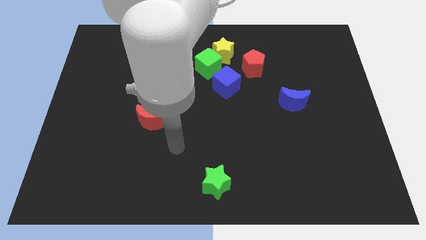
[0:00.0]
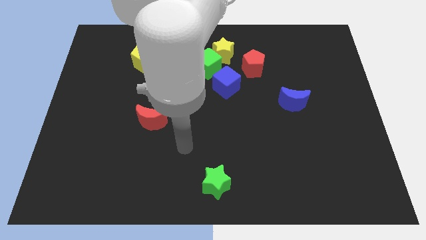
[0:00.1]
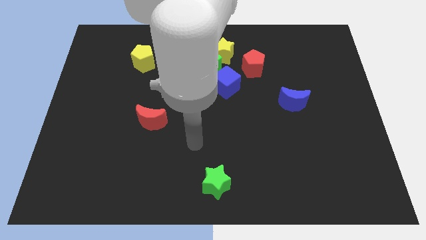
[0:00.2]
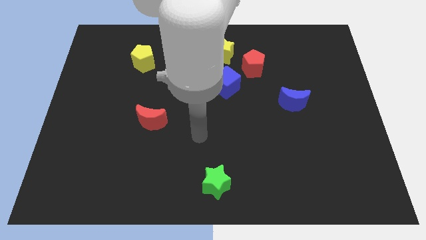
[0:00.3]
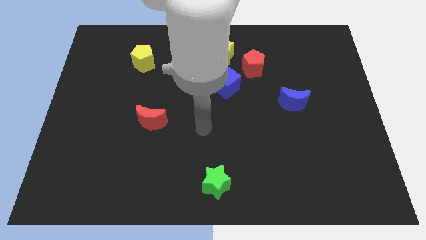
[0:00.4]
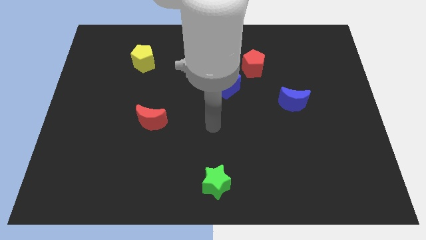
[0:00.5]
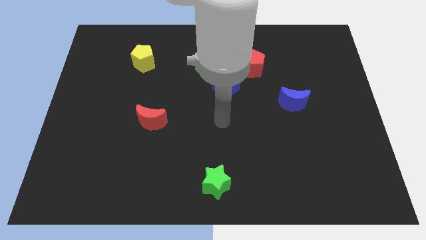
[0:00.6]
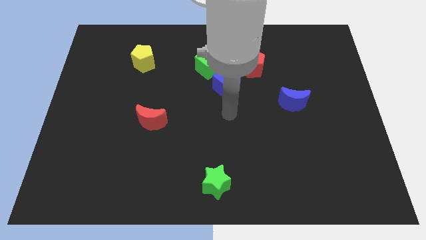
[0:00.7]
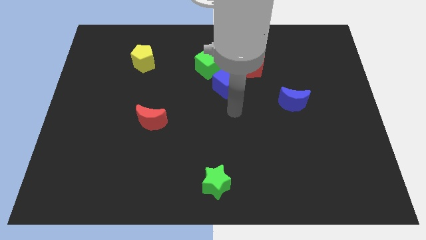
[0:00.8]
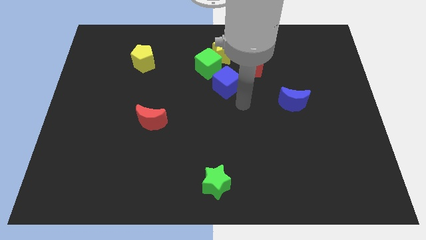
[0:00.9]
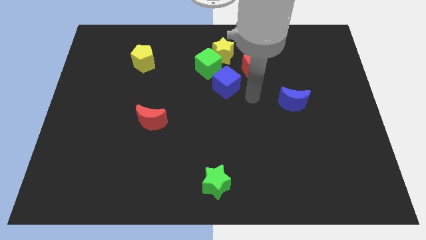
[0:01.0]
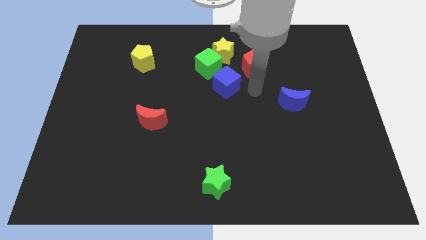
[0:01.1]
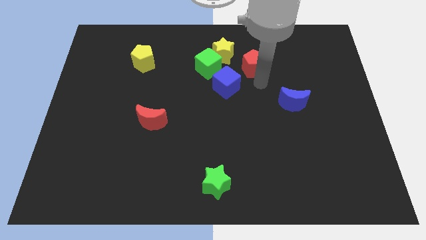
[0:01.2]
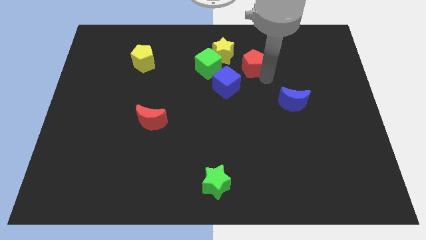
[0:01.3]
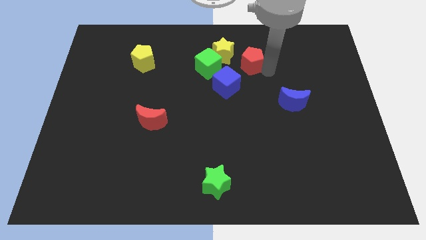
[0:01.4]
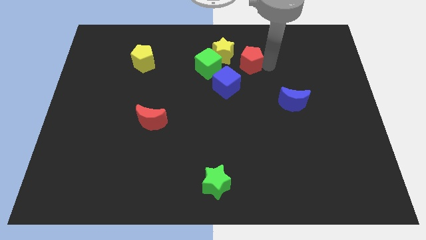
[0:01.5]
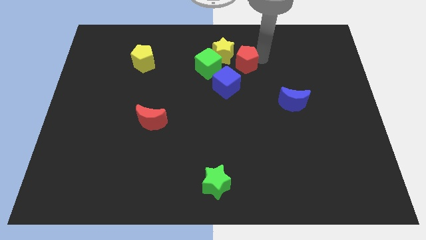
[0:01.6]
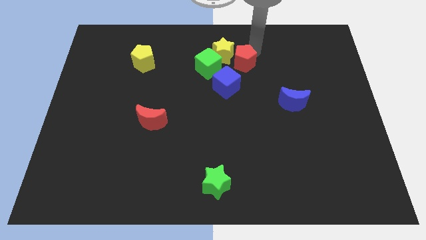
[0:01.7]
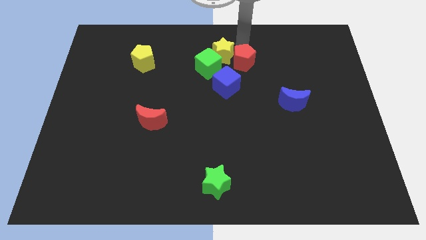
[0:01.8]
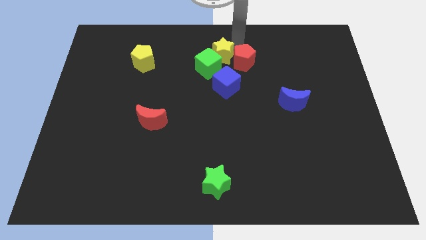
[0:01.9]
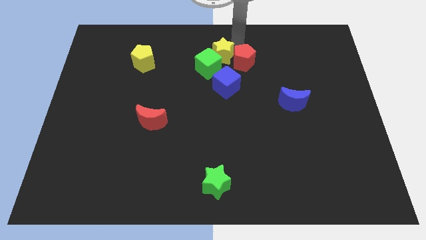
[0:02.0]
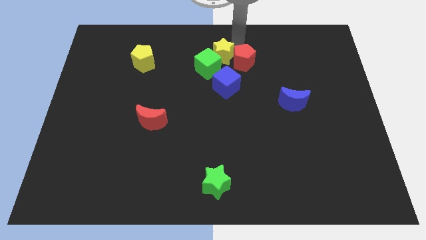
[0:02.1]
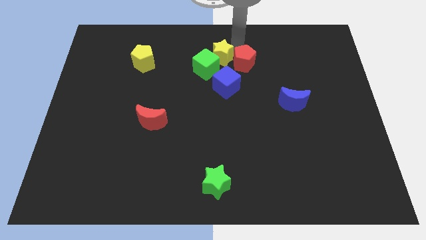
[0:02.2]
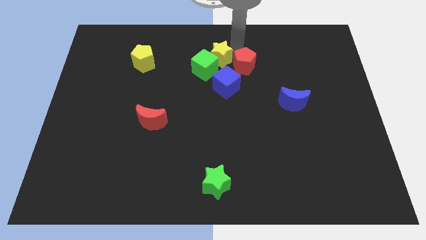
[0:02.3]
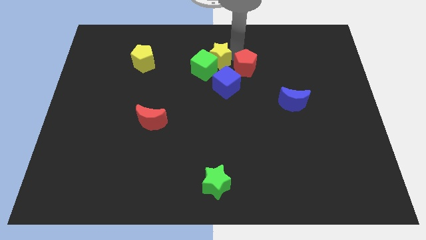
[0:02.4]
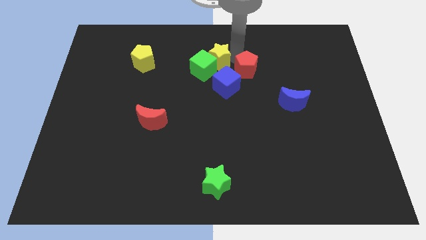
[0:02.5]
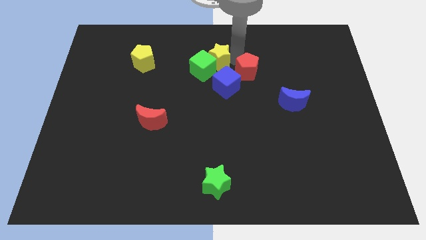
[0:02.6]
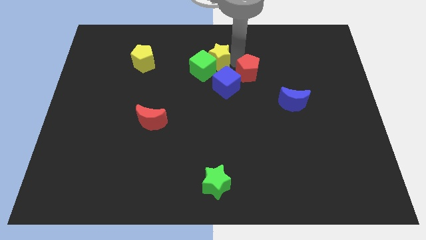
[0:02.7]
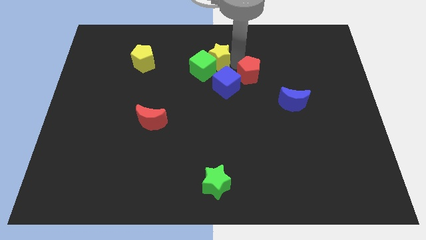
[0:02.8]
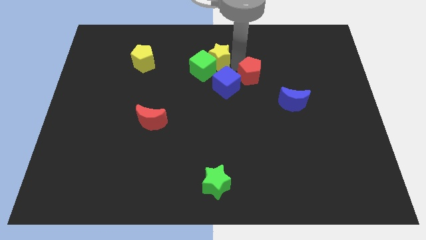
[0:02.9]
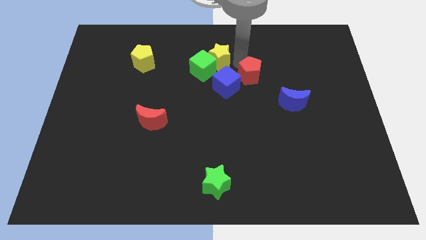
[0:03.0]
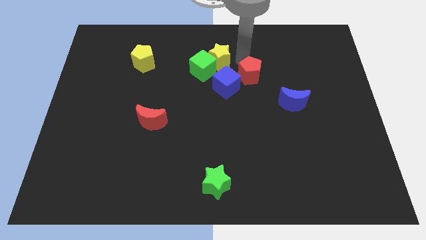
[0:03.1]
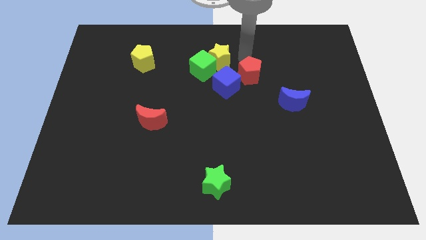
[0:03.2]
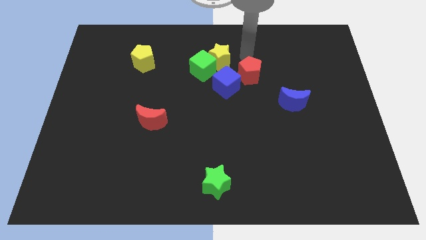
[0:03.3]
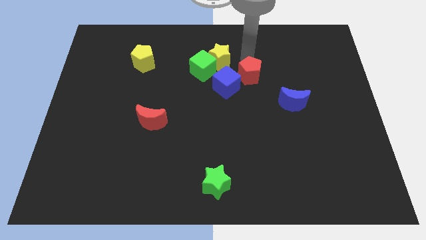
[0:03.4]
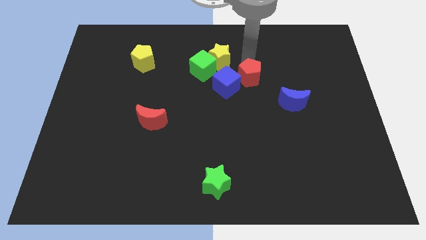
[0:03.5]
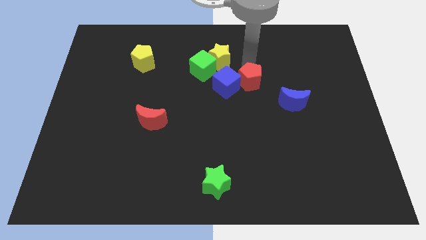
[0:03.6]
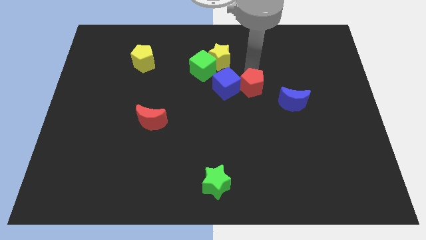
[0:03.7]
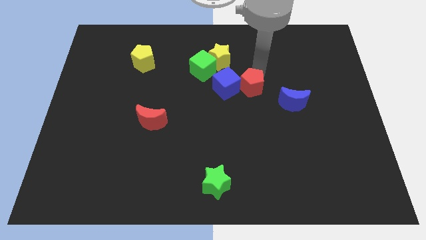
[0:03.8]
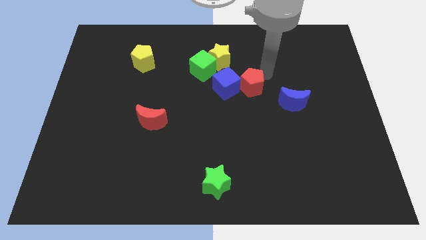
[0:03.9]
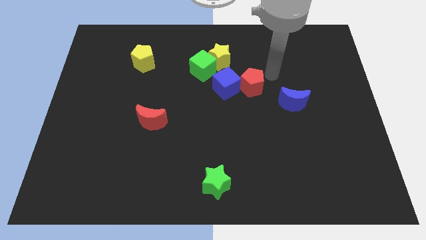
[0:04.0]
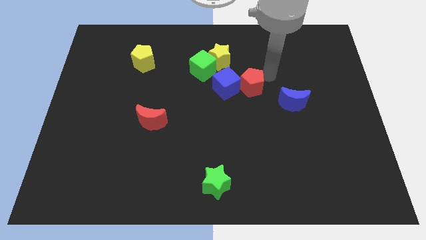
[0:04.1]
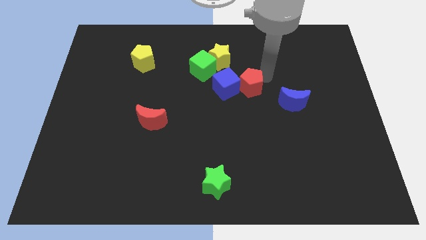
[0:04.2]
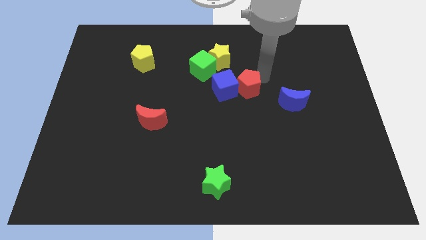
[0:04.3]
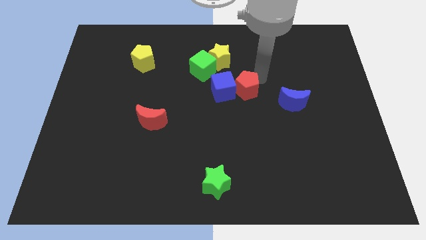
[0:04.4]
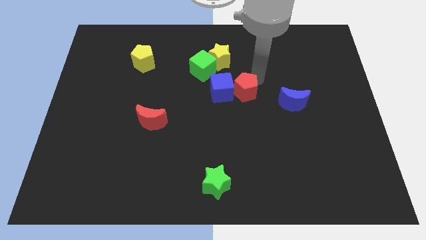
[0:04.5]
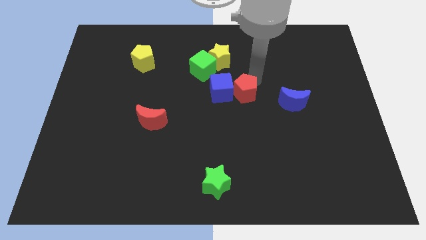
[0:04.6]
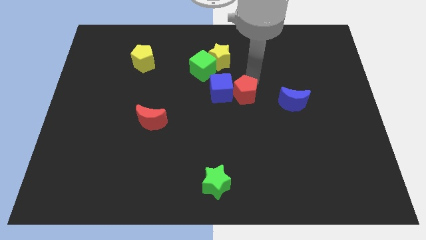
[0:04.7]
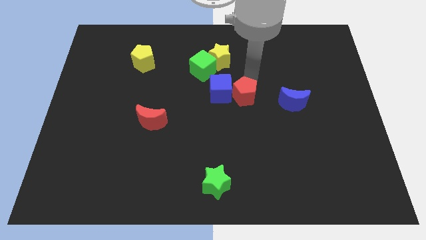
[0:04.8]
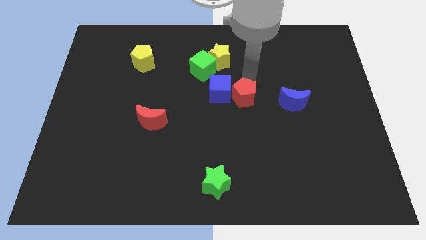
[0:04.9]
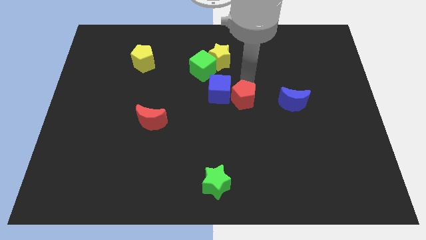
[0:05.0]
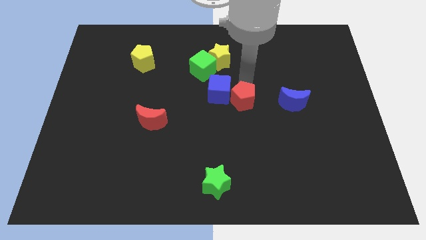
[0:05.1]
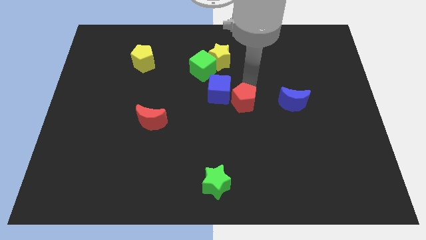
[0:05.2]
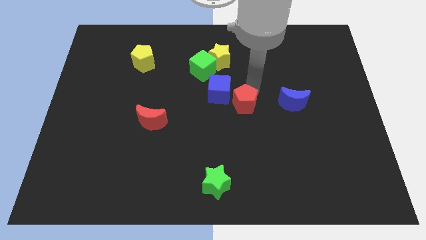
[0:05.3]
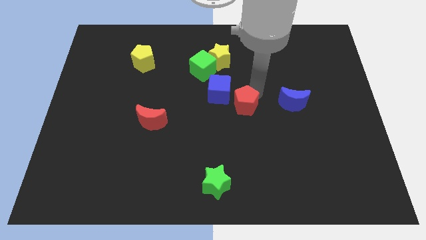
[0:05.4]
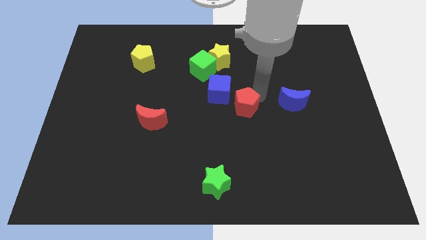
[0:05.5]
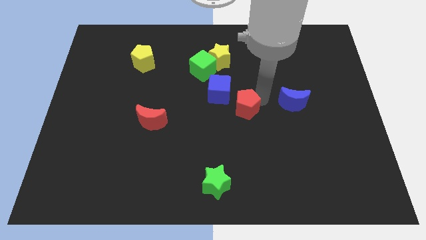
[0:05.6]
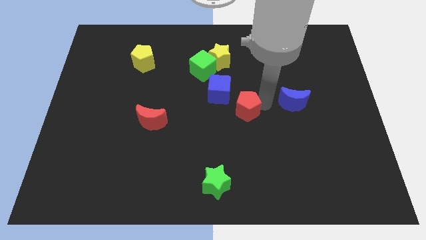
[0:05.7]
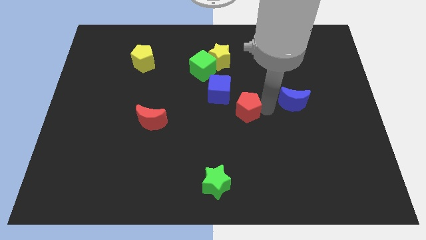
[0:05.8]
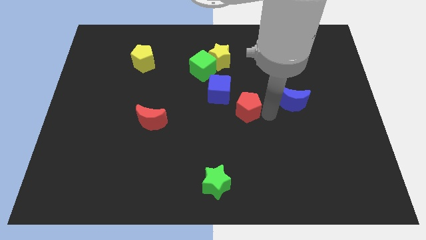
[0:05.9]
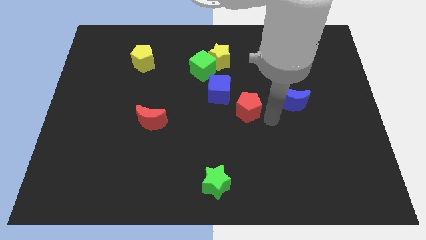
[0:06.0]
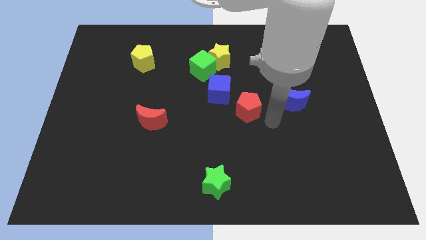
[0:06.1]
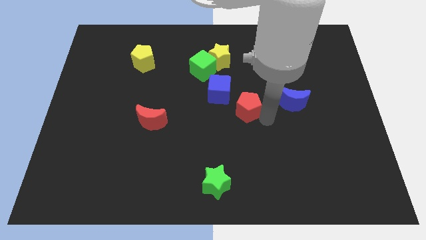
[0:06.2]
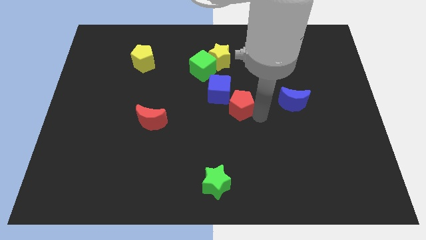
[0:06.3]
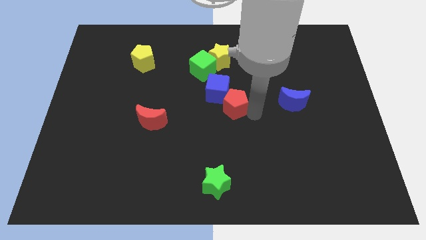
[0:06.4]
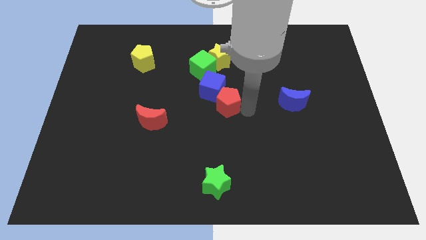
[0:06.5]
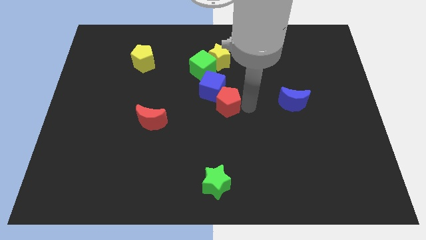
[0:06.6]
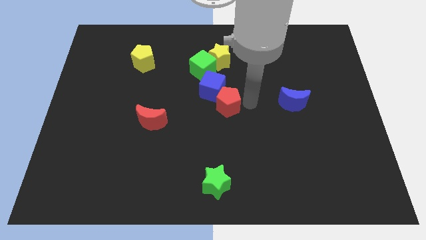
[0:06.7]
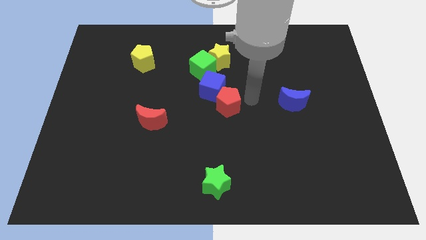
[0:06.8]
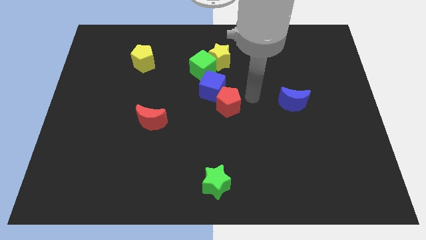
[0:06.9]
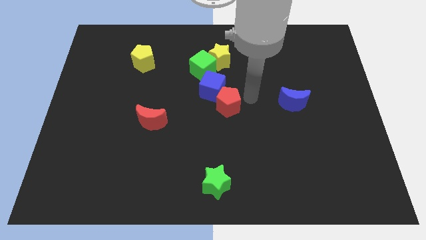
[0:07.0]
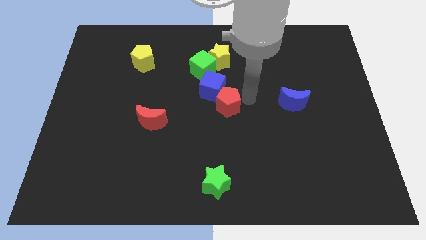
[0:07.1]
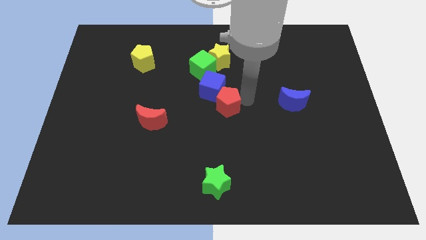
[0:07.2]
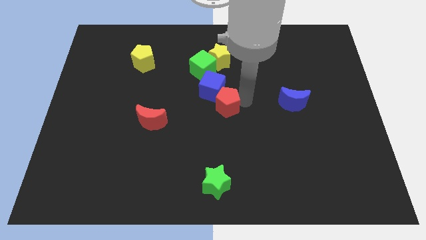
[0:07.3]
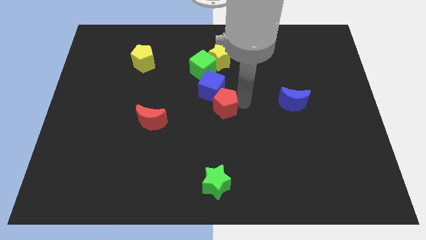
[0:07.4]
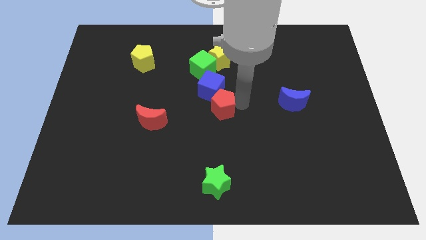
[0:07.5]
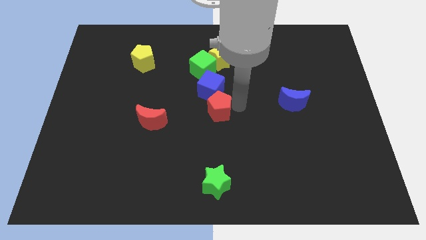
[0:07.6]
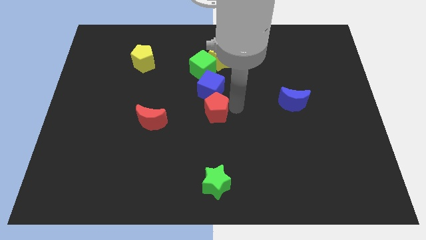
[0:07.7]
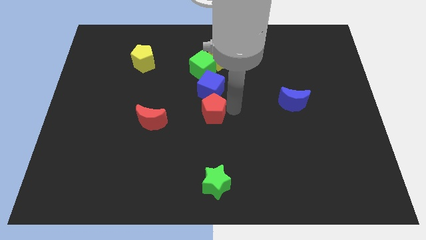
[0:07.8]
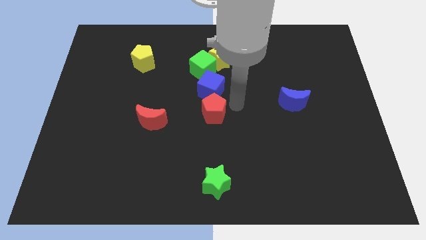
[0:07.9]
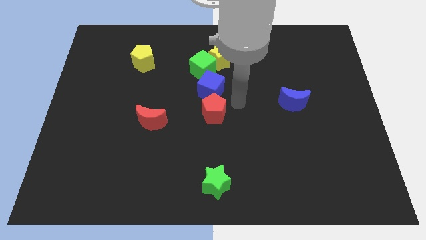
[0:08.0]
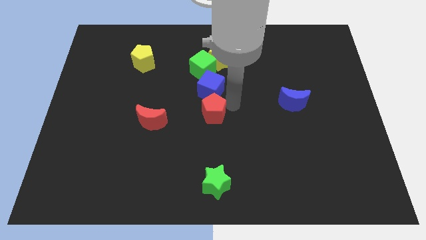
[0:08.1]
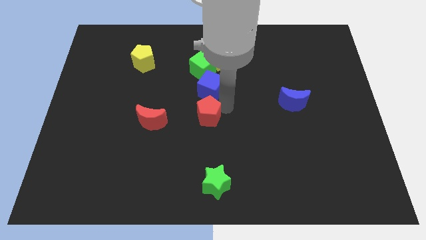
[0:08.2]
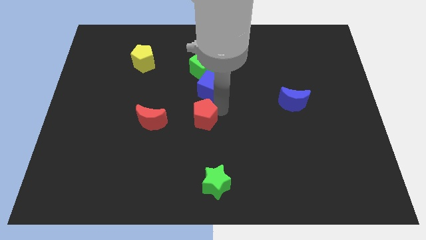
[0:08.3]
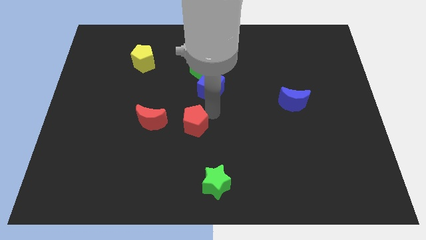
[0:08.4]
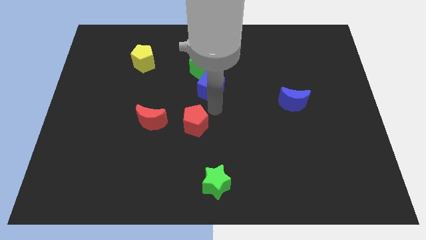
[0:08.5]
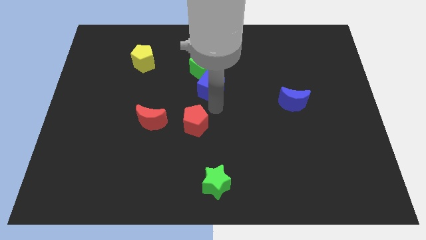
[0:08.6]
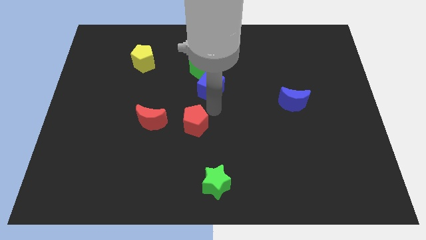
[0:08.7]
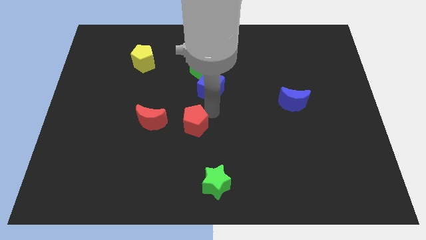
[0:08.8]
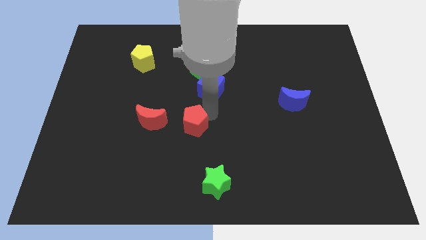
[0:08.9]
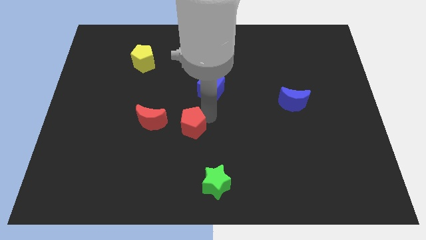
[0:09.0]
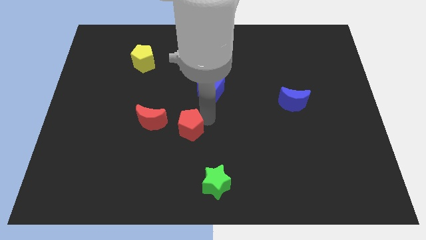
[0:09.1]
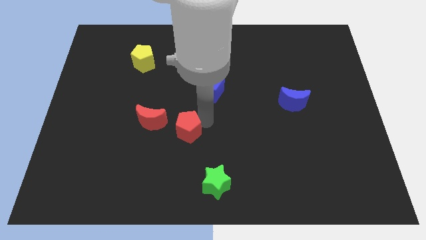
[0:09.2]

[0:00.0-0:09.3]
push the red pentagon diagonally down and to the right of the red moon
